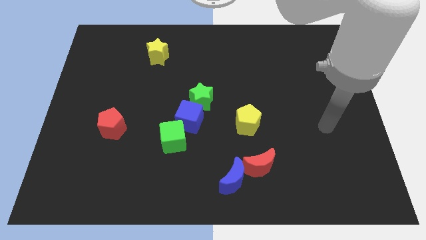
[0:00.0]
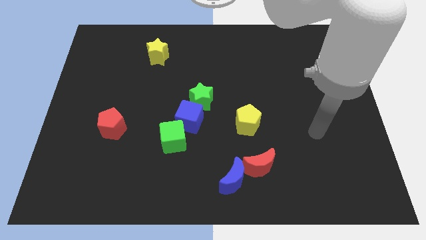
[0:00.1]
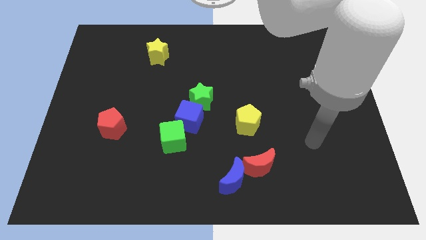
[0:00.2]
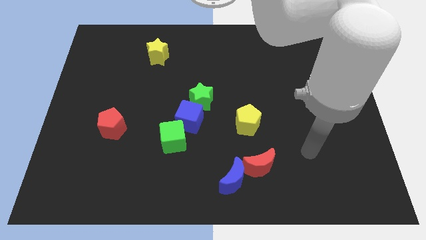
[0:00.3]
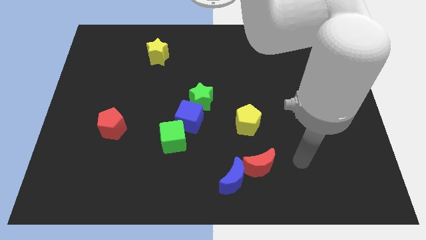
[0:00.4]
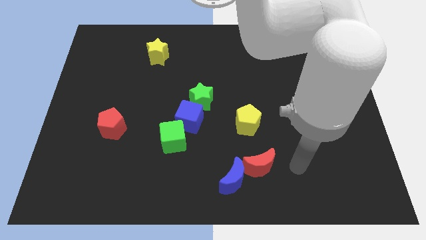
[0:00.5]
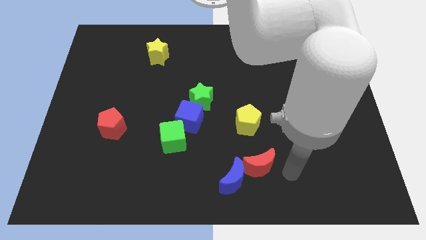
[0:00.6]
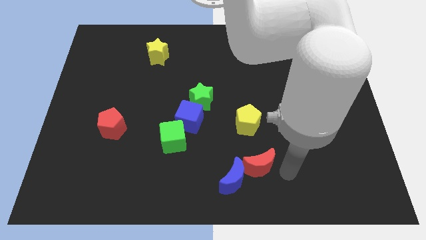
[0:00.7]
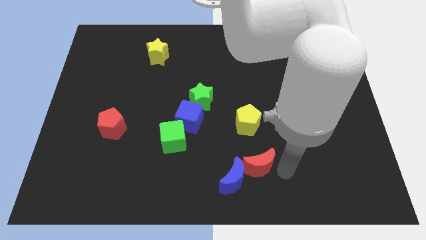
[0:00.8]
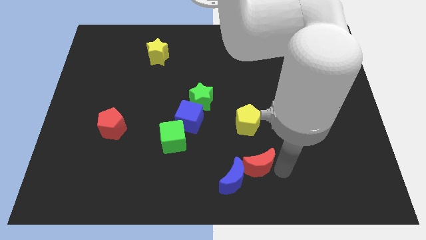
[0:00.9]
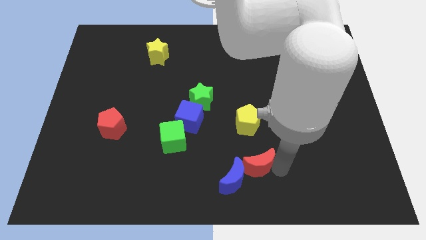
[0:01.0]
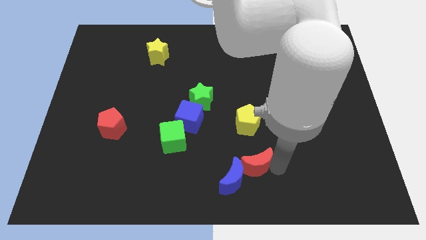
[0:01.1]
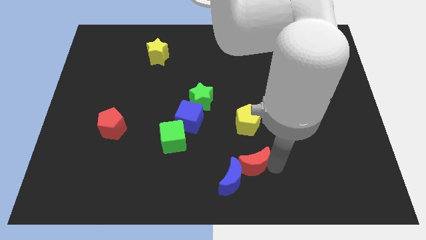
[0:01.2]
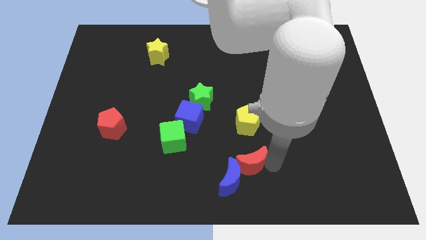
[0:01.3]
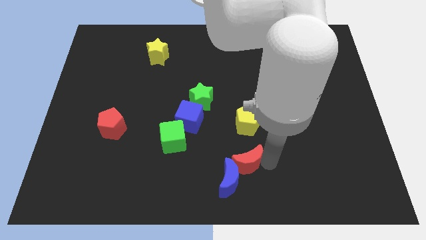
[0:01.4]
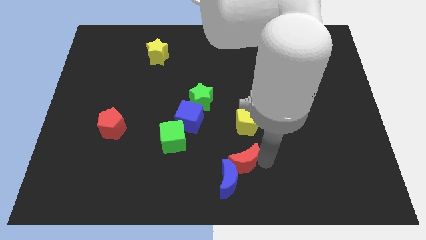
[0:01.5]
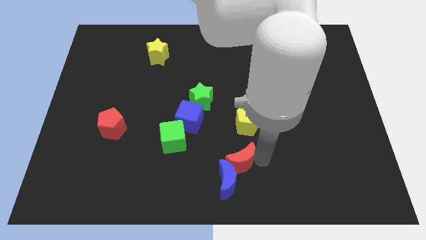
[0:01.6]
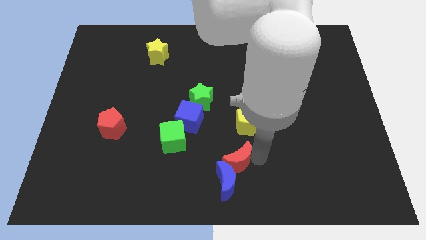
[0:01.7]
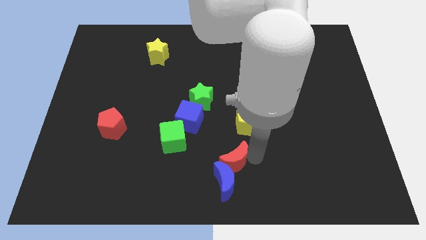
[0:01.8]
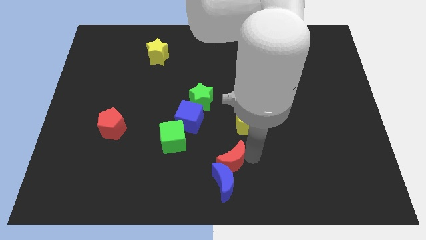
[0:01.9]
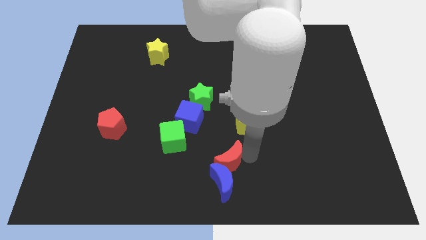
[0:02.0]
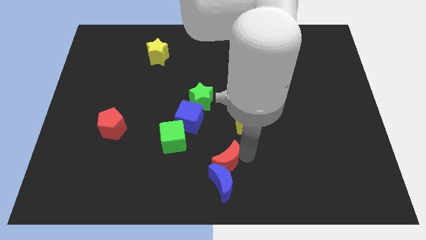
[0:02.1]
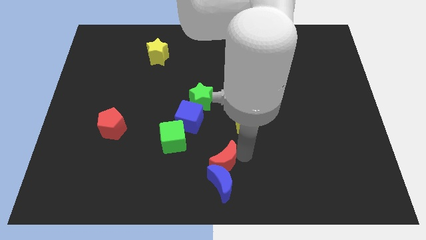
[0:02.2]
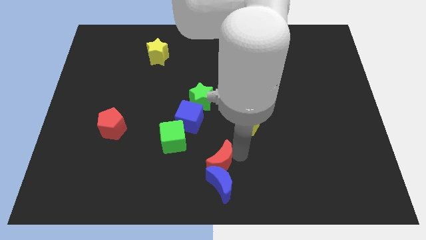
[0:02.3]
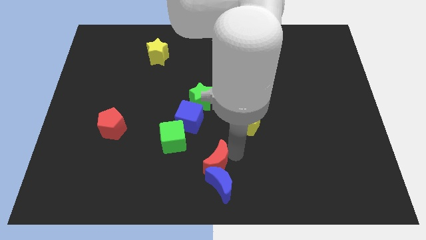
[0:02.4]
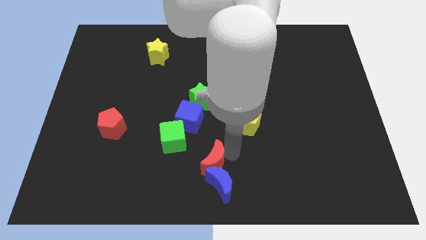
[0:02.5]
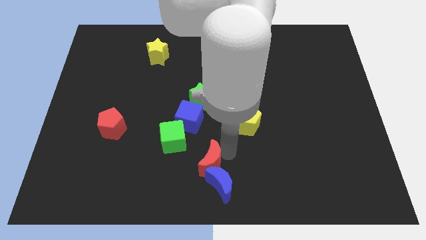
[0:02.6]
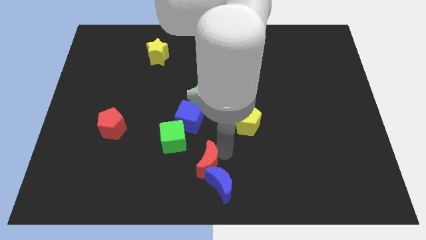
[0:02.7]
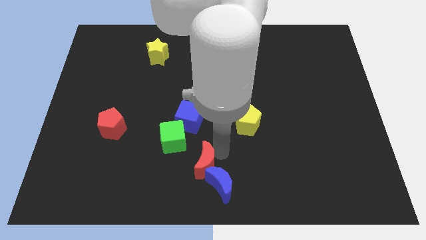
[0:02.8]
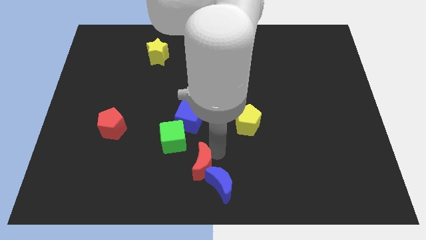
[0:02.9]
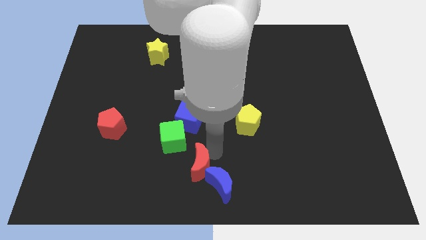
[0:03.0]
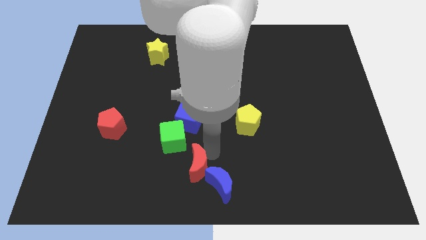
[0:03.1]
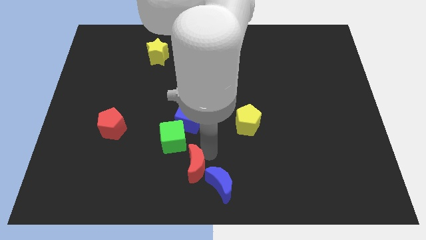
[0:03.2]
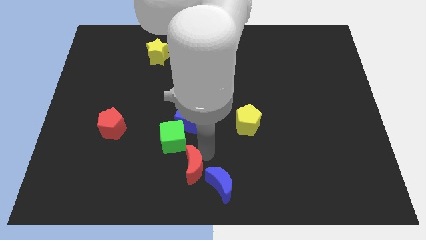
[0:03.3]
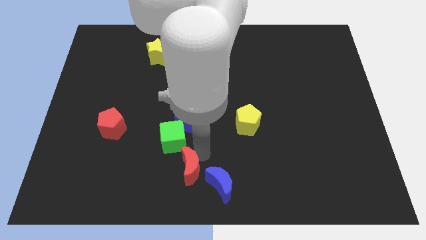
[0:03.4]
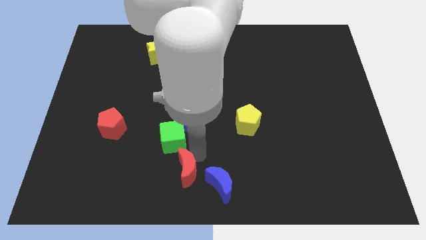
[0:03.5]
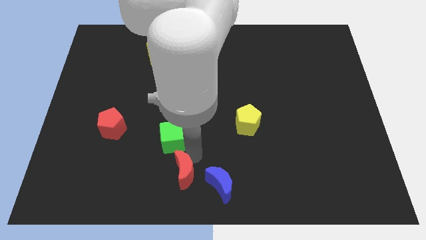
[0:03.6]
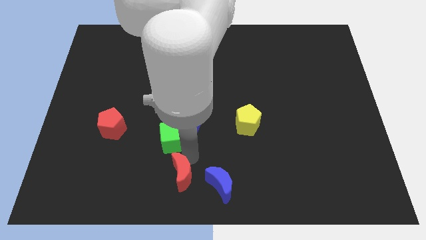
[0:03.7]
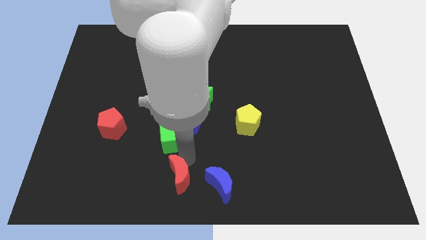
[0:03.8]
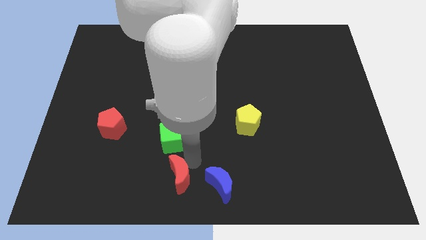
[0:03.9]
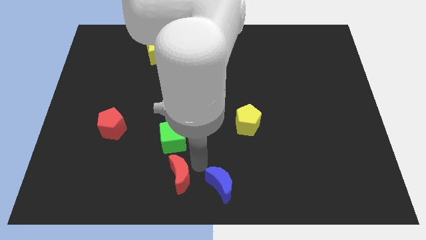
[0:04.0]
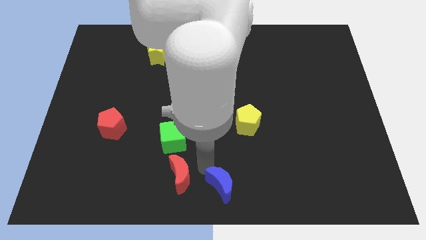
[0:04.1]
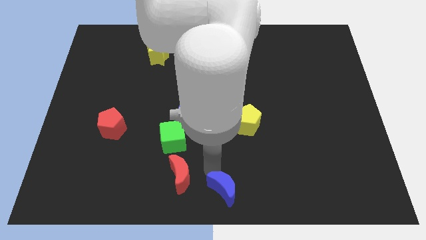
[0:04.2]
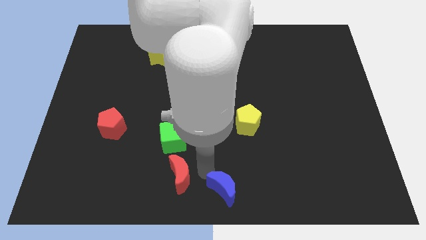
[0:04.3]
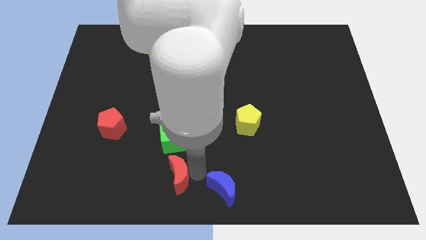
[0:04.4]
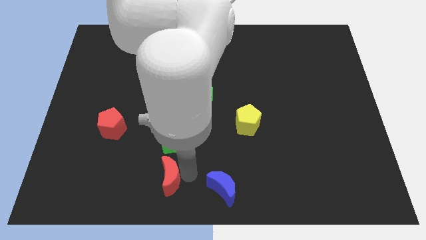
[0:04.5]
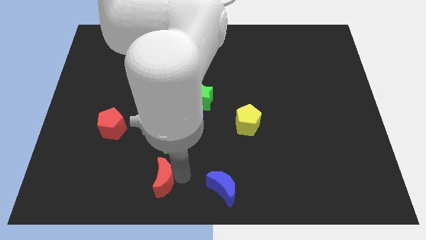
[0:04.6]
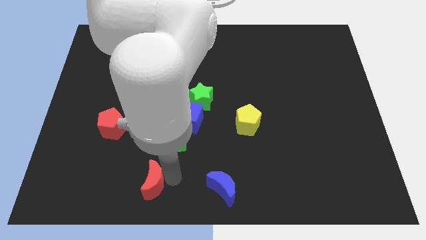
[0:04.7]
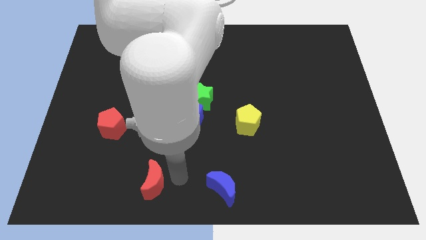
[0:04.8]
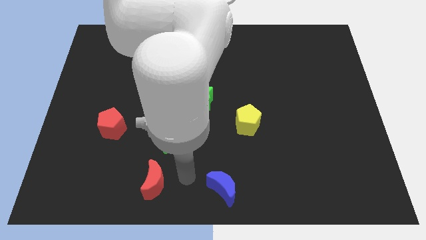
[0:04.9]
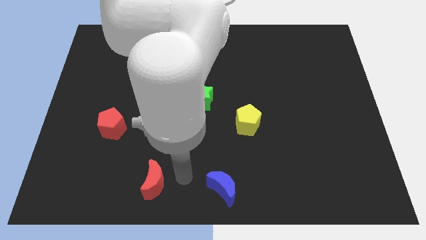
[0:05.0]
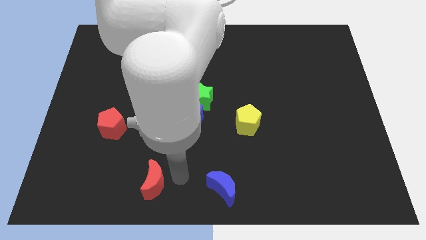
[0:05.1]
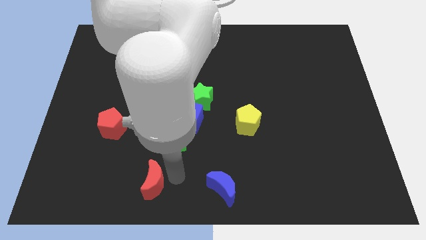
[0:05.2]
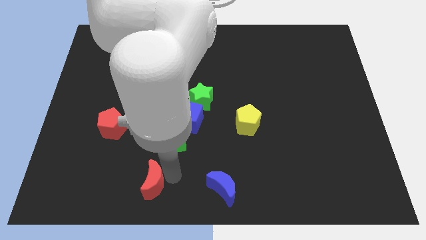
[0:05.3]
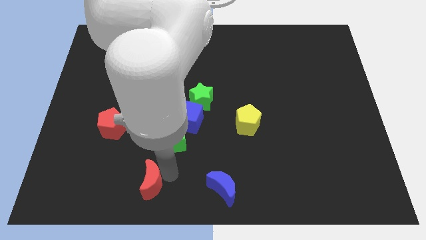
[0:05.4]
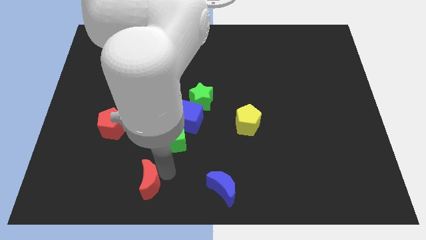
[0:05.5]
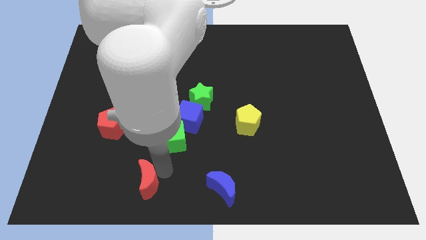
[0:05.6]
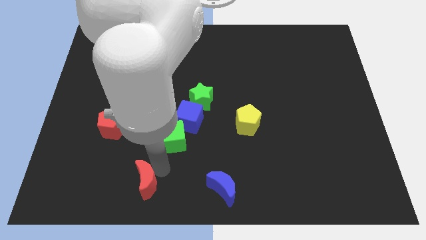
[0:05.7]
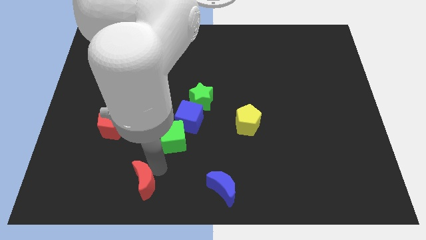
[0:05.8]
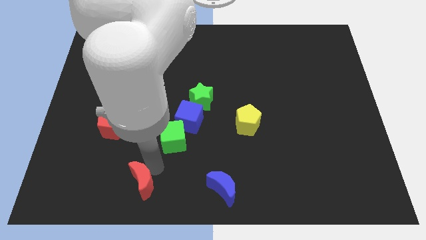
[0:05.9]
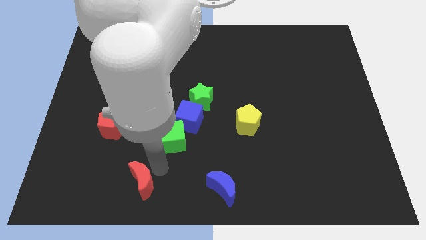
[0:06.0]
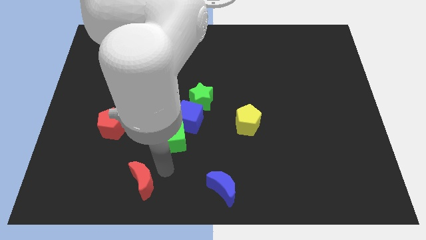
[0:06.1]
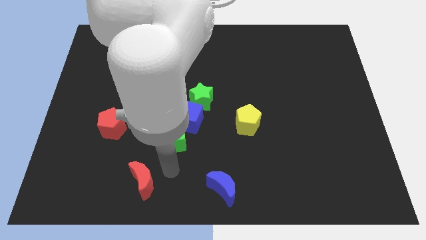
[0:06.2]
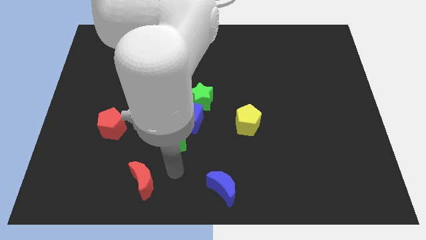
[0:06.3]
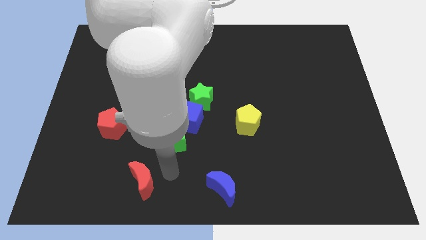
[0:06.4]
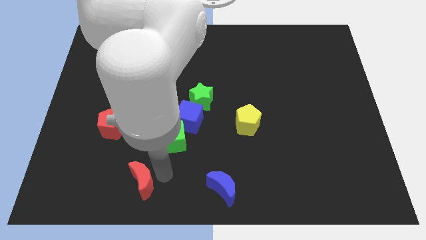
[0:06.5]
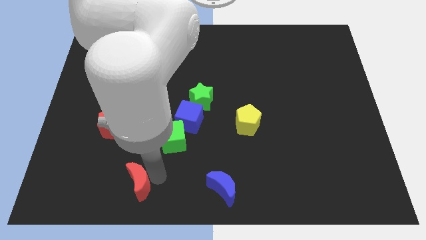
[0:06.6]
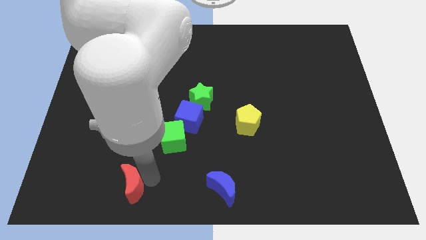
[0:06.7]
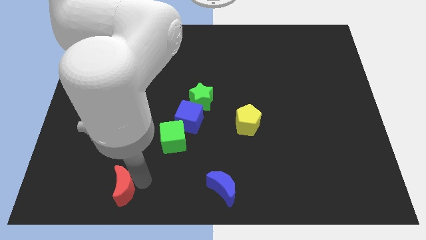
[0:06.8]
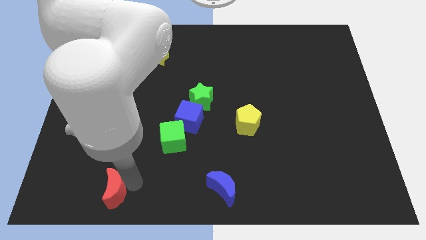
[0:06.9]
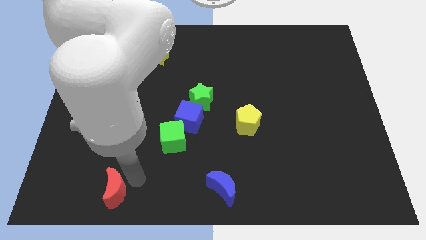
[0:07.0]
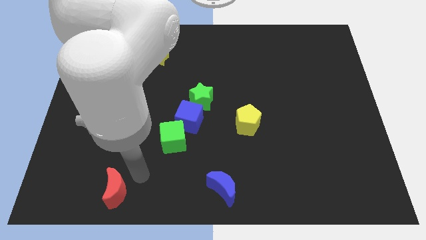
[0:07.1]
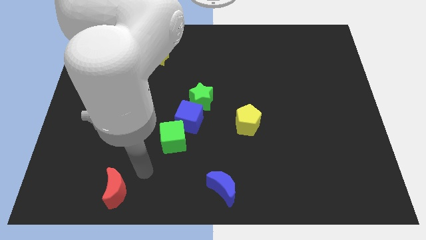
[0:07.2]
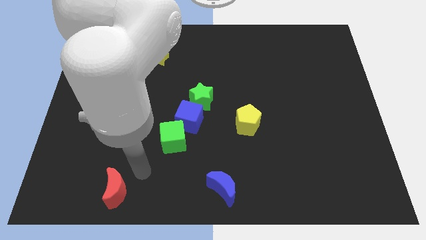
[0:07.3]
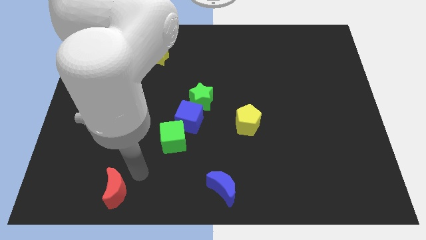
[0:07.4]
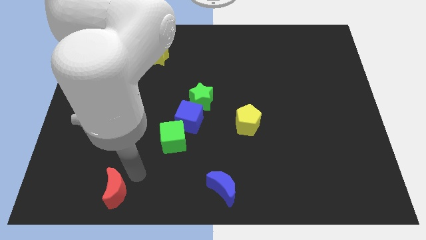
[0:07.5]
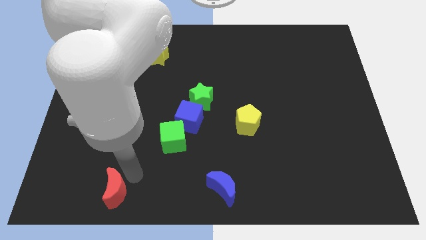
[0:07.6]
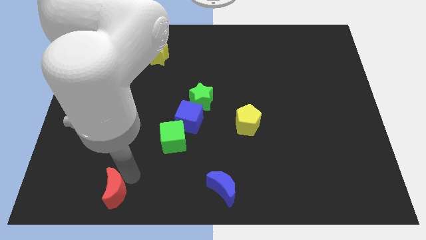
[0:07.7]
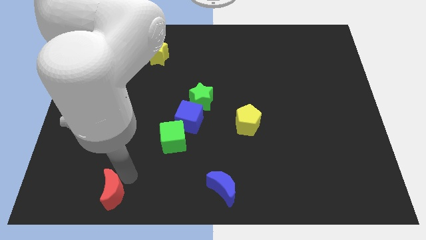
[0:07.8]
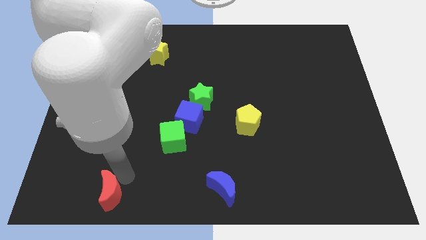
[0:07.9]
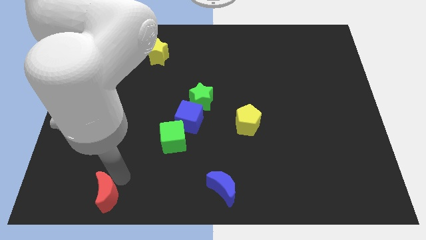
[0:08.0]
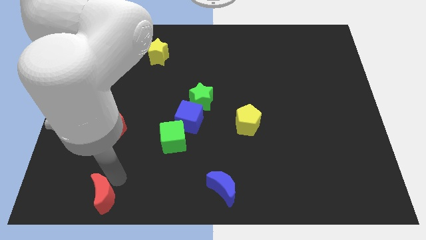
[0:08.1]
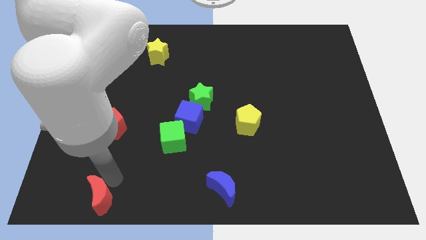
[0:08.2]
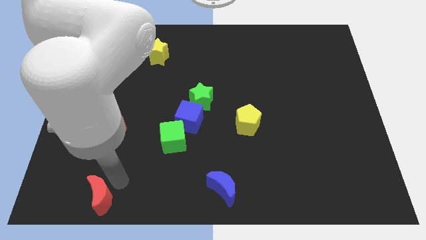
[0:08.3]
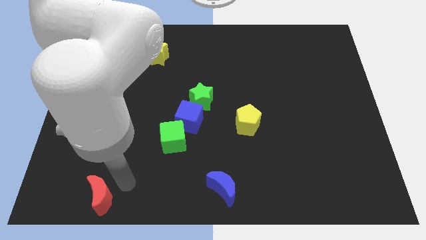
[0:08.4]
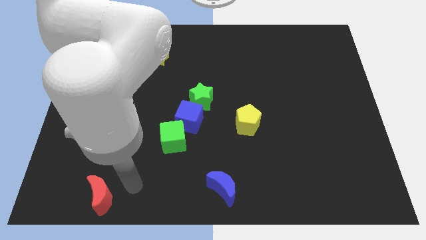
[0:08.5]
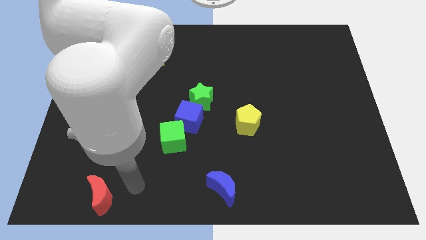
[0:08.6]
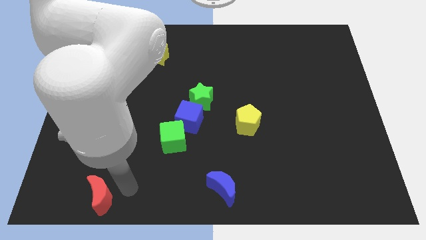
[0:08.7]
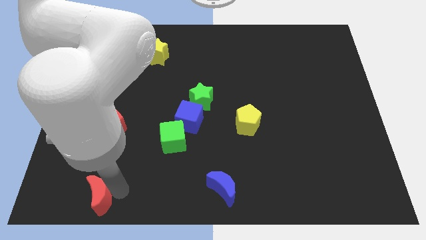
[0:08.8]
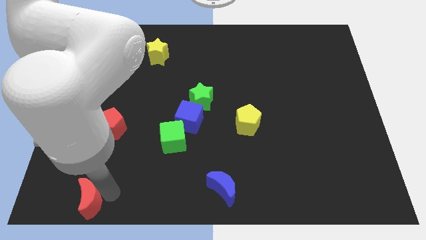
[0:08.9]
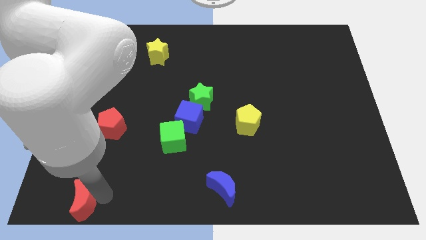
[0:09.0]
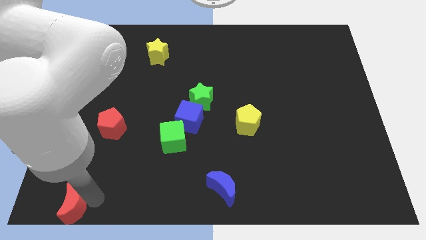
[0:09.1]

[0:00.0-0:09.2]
move the red moon to the bottom left of the board
